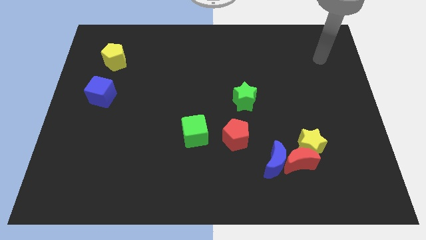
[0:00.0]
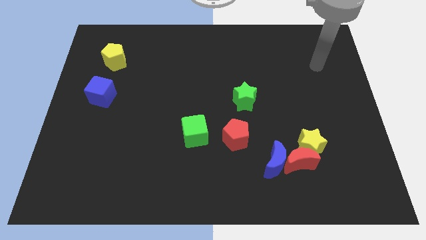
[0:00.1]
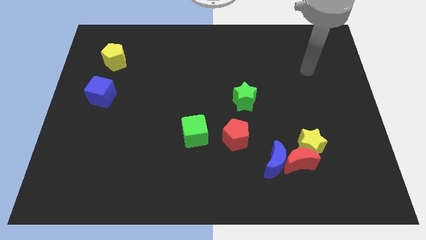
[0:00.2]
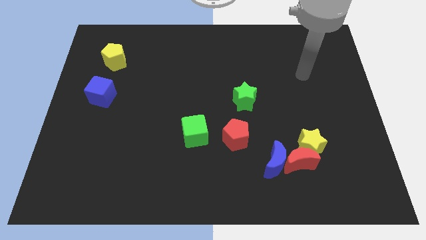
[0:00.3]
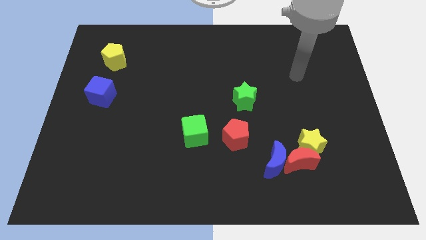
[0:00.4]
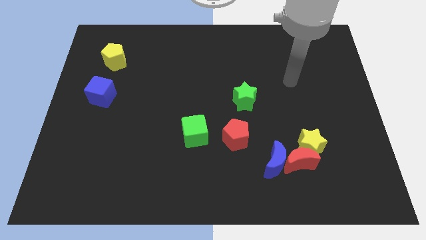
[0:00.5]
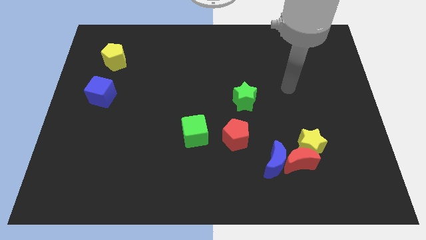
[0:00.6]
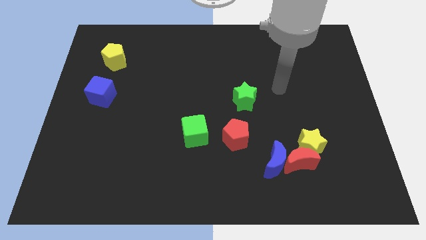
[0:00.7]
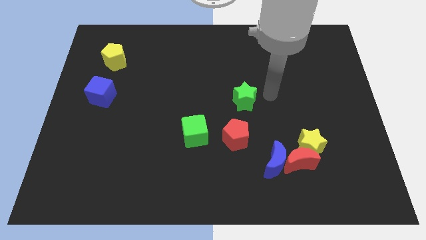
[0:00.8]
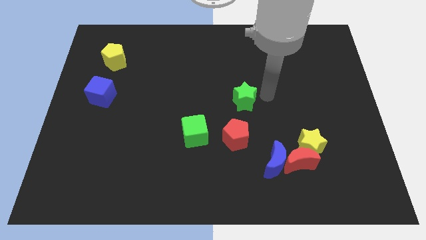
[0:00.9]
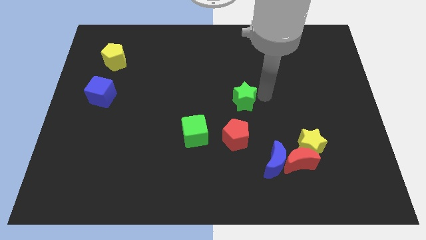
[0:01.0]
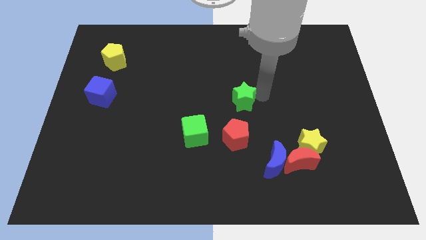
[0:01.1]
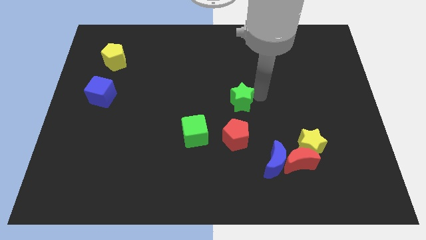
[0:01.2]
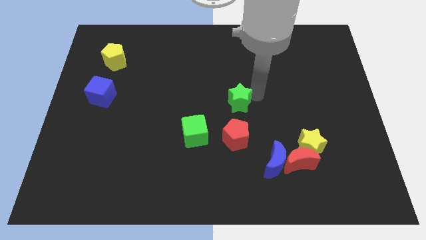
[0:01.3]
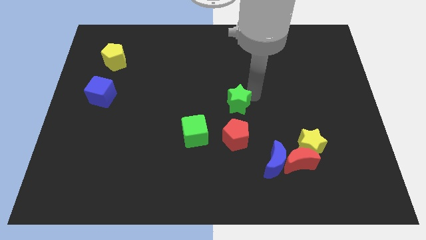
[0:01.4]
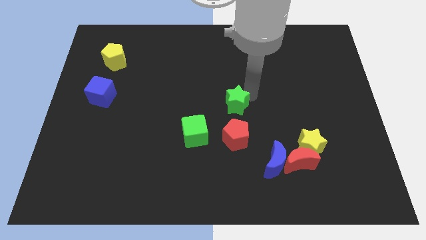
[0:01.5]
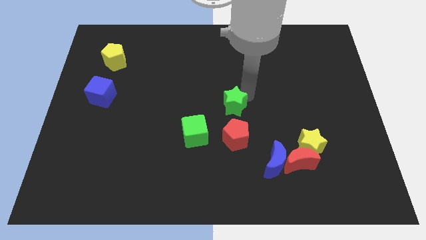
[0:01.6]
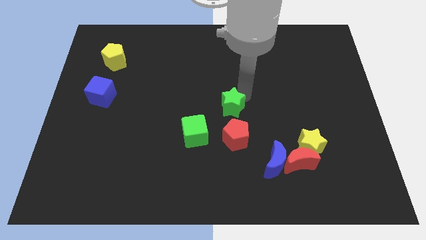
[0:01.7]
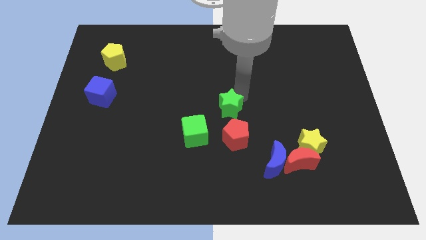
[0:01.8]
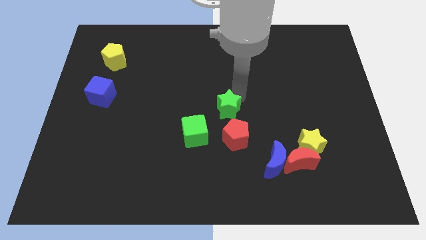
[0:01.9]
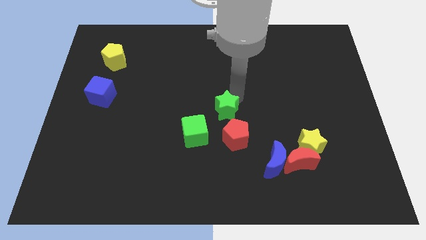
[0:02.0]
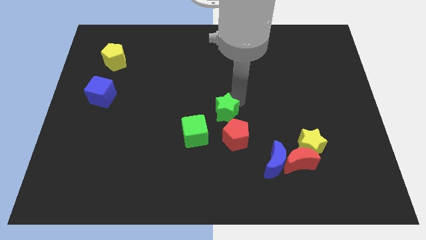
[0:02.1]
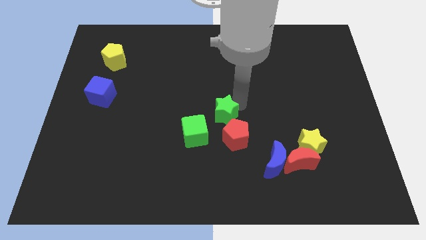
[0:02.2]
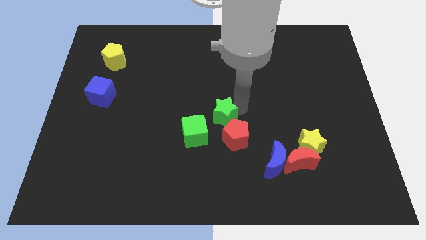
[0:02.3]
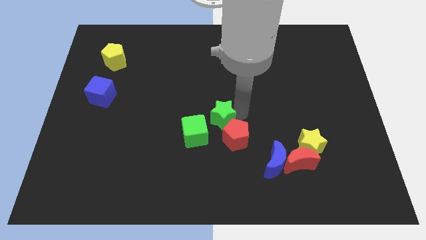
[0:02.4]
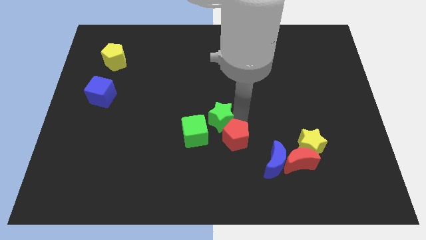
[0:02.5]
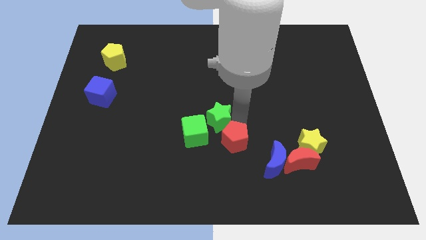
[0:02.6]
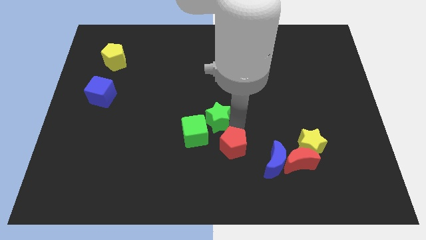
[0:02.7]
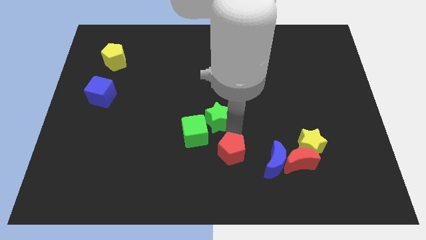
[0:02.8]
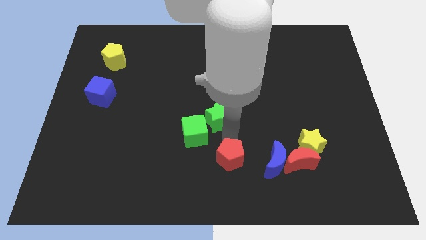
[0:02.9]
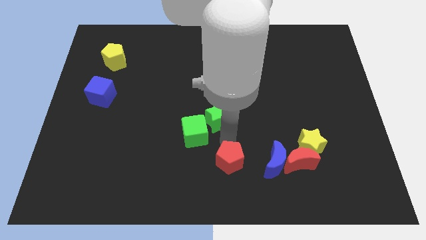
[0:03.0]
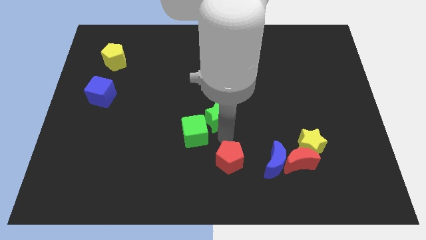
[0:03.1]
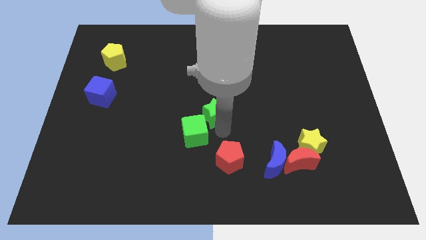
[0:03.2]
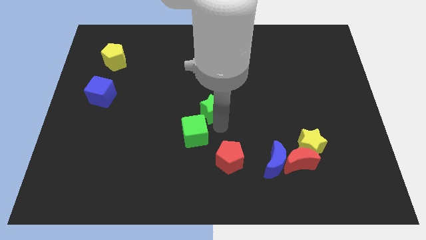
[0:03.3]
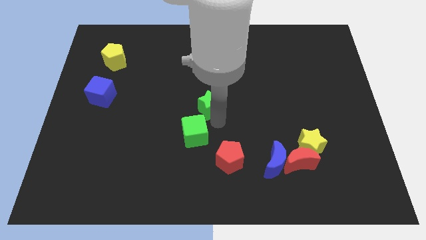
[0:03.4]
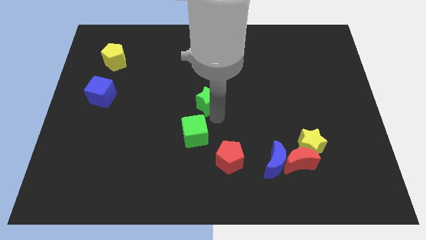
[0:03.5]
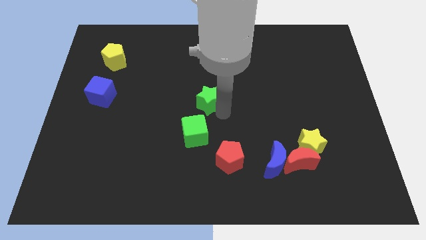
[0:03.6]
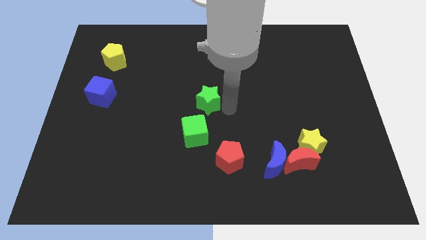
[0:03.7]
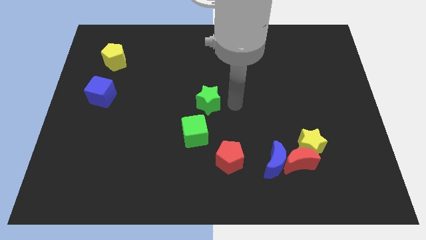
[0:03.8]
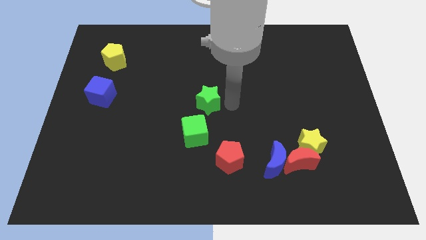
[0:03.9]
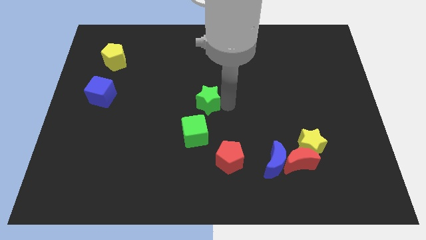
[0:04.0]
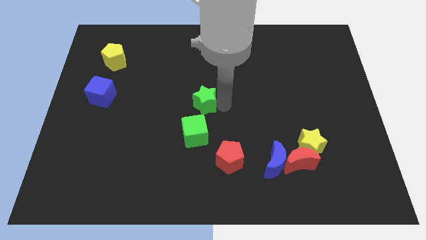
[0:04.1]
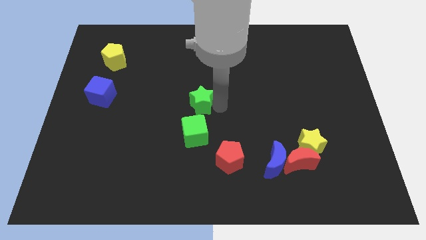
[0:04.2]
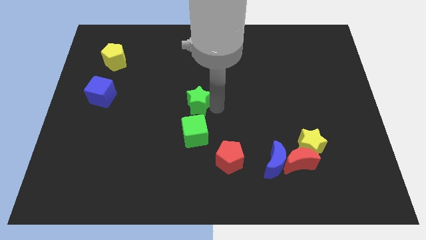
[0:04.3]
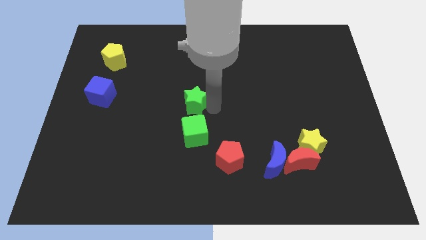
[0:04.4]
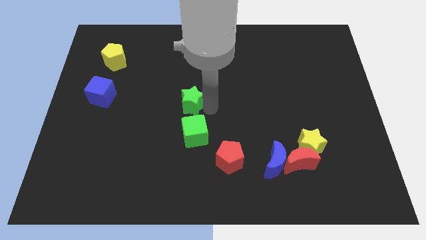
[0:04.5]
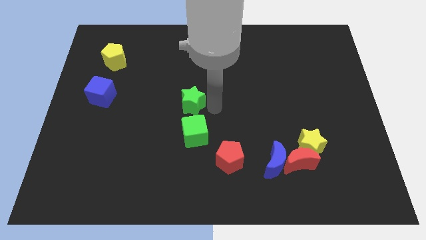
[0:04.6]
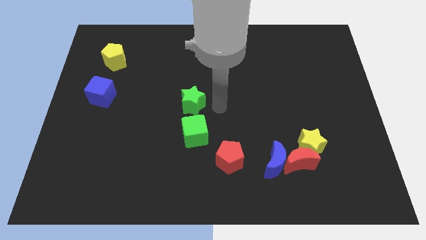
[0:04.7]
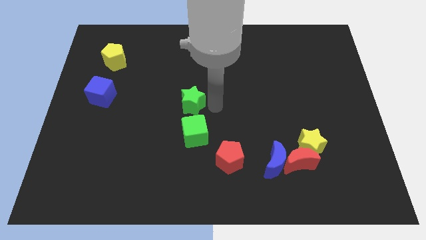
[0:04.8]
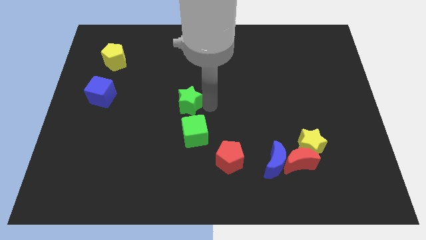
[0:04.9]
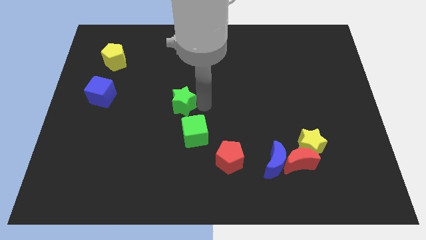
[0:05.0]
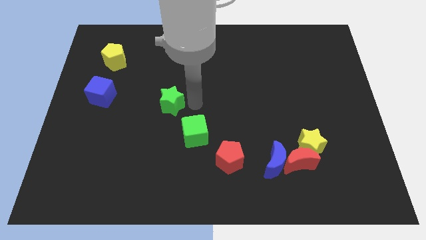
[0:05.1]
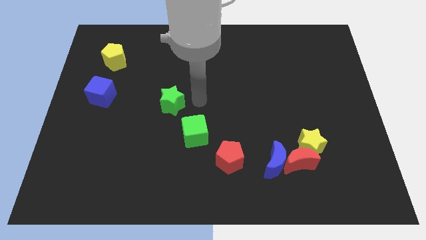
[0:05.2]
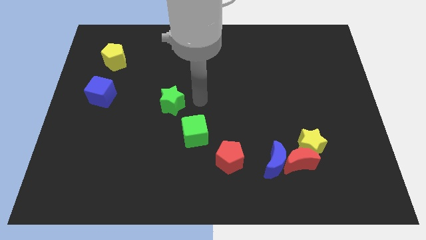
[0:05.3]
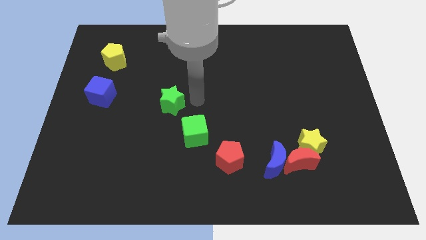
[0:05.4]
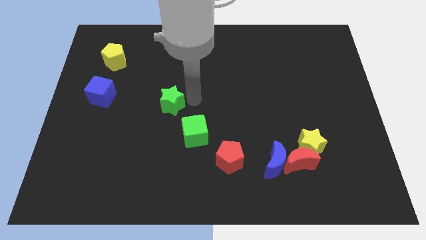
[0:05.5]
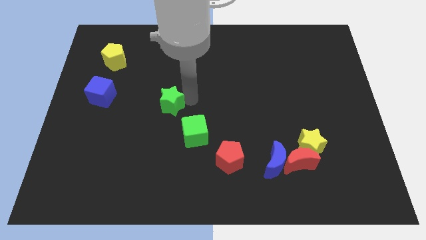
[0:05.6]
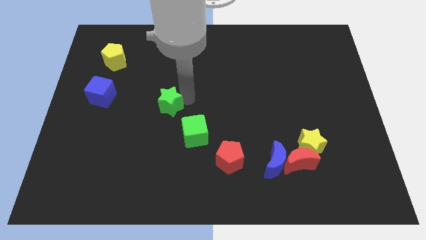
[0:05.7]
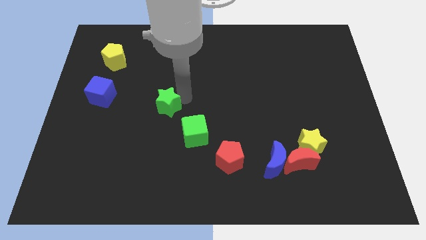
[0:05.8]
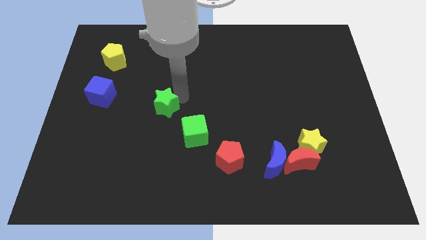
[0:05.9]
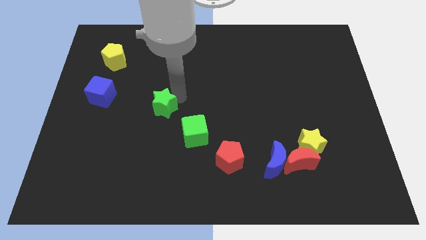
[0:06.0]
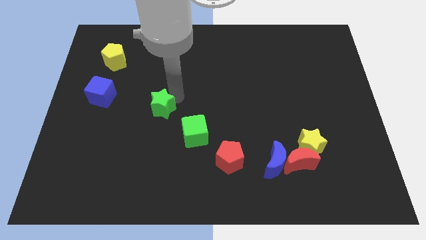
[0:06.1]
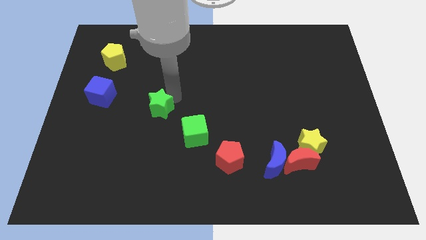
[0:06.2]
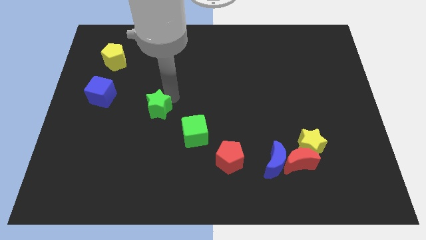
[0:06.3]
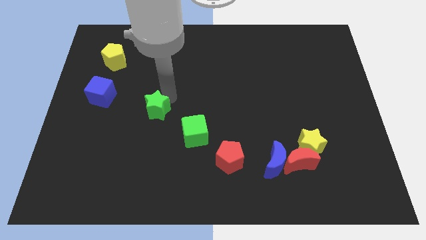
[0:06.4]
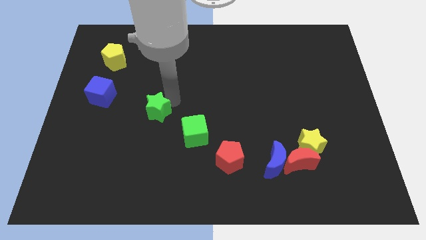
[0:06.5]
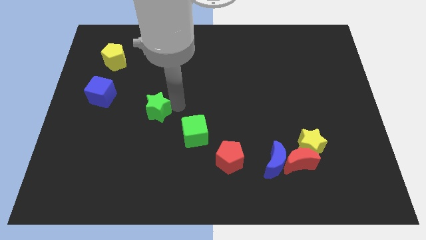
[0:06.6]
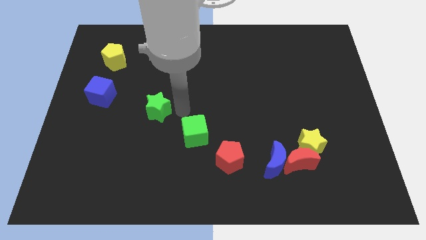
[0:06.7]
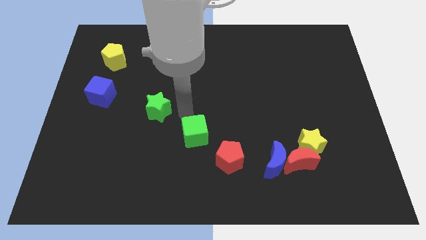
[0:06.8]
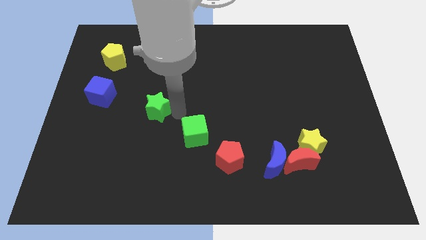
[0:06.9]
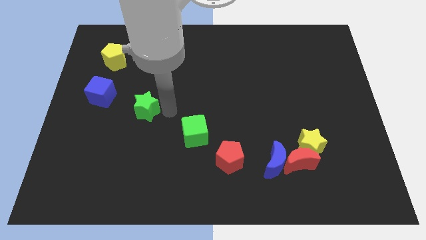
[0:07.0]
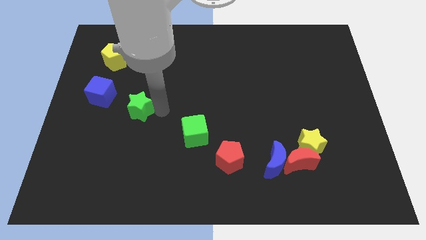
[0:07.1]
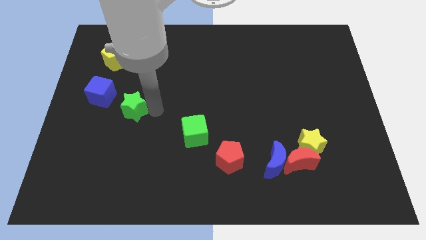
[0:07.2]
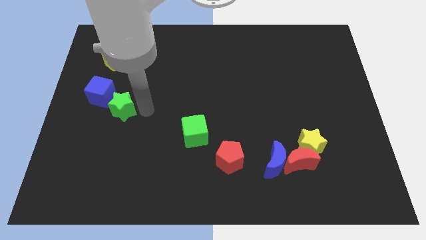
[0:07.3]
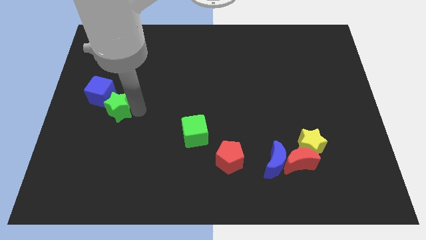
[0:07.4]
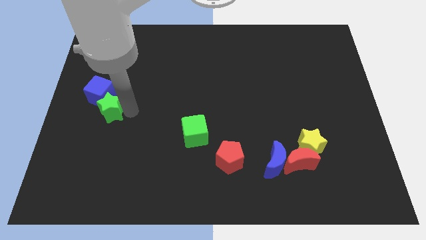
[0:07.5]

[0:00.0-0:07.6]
slide the green star next to the blue cube

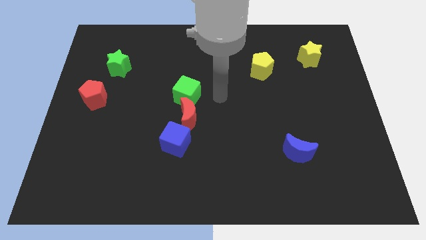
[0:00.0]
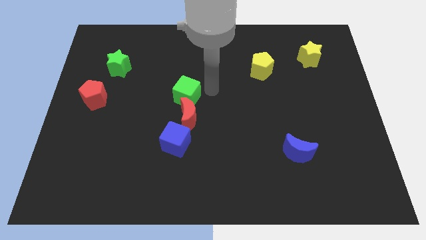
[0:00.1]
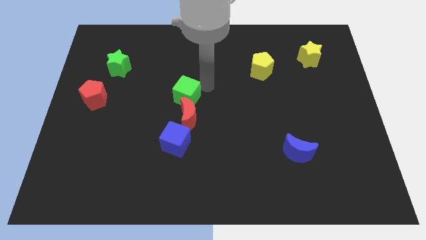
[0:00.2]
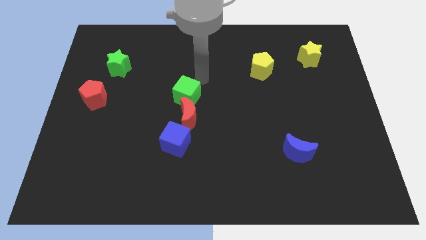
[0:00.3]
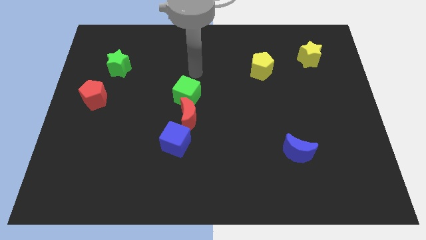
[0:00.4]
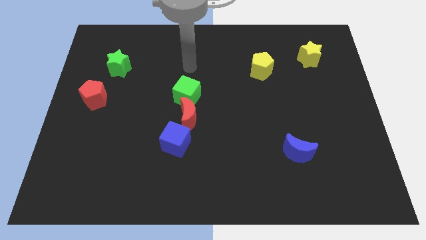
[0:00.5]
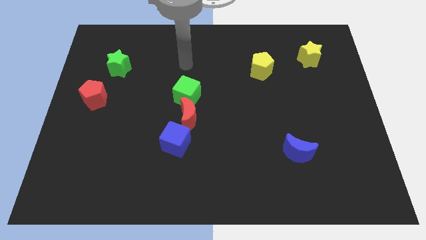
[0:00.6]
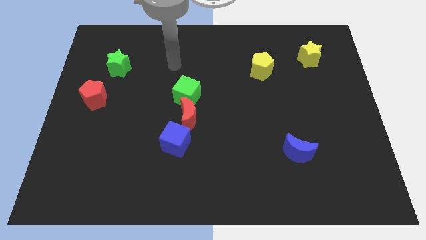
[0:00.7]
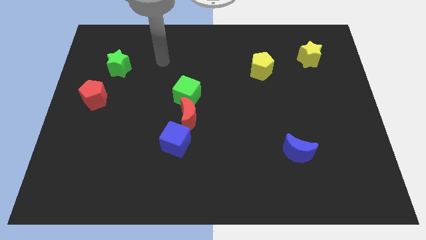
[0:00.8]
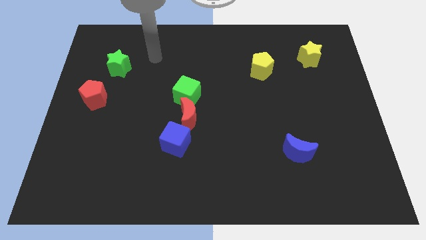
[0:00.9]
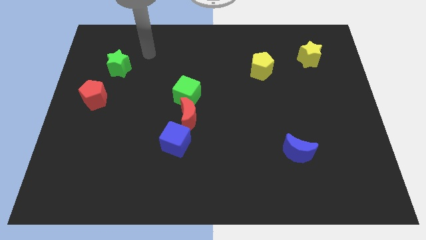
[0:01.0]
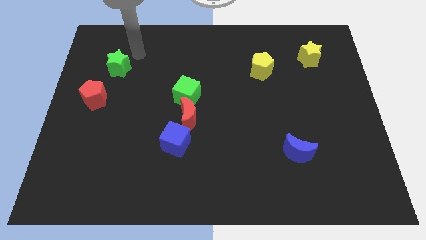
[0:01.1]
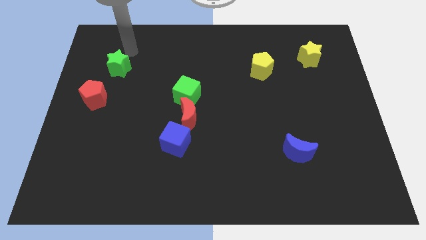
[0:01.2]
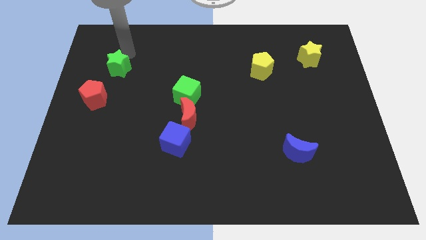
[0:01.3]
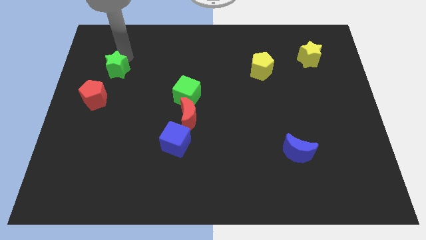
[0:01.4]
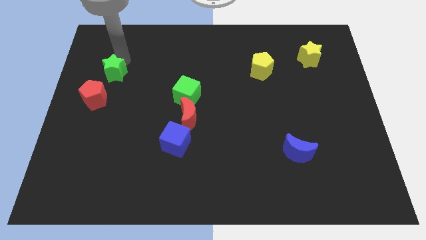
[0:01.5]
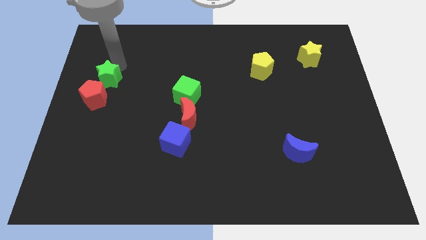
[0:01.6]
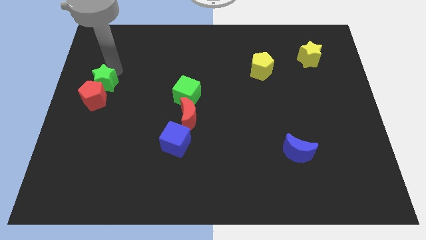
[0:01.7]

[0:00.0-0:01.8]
slide the green star next to the red pentagon
